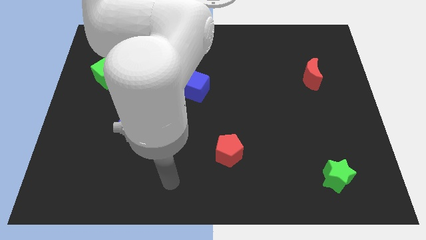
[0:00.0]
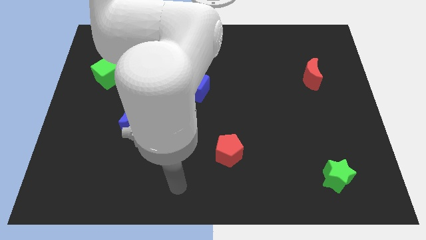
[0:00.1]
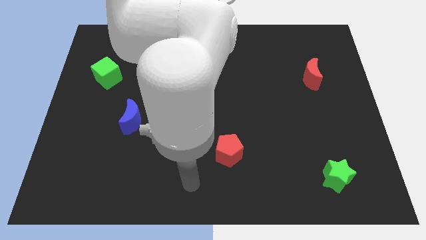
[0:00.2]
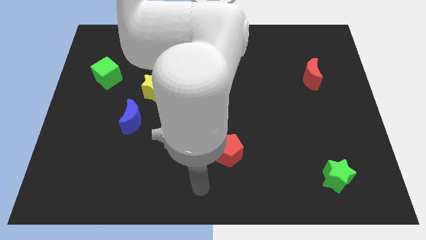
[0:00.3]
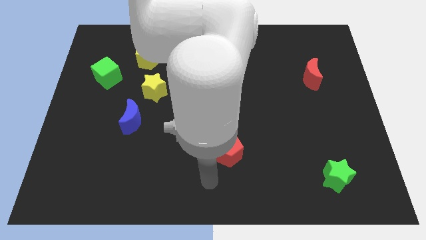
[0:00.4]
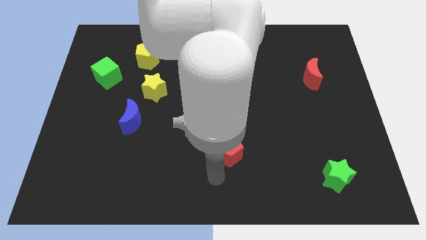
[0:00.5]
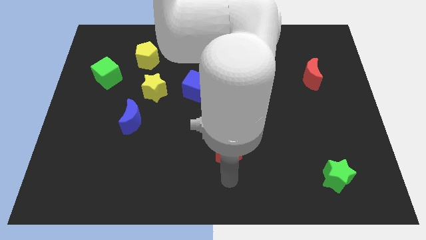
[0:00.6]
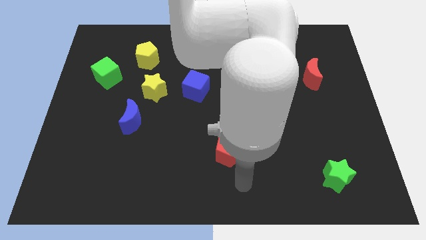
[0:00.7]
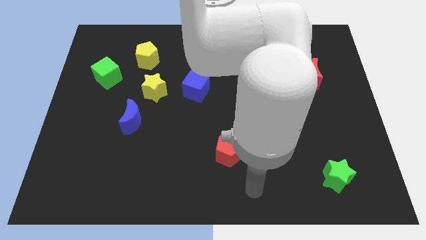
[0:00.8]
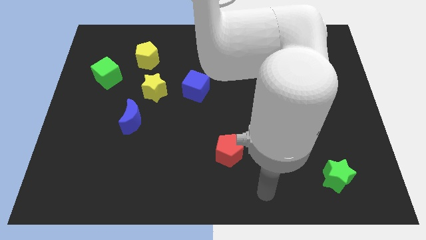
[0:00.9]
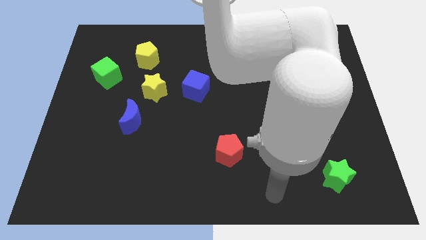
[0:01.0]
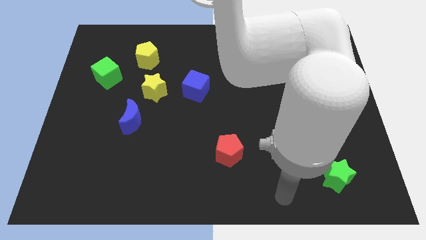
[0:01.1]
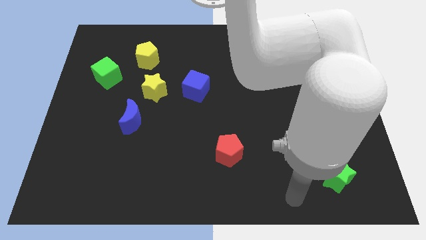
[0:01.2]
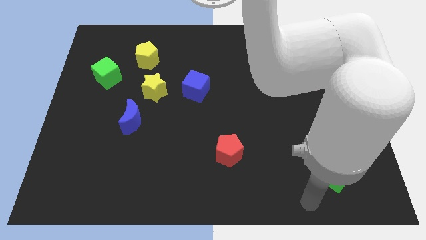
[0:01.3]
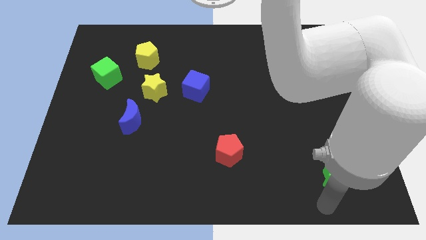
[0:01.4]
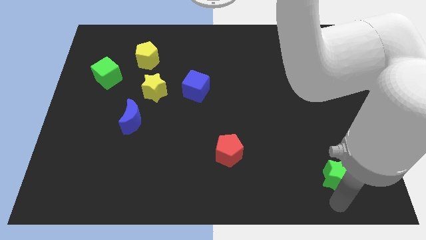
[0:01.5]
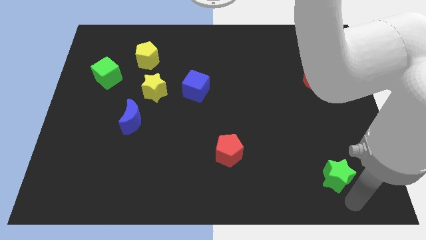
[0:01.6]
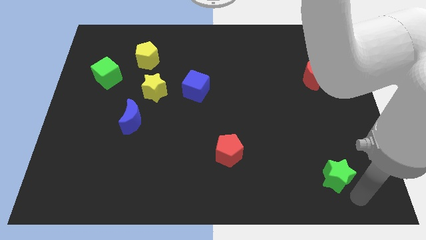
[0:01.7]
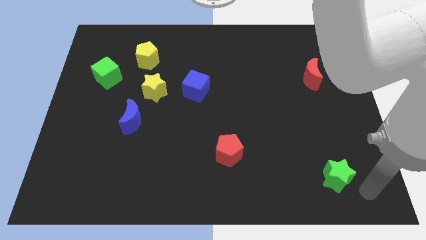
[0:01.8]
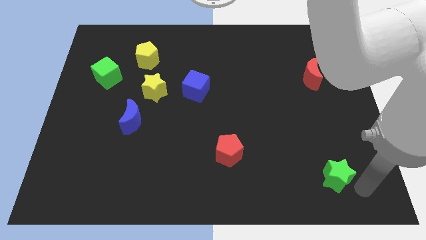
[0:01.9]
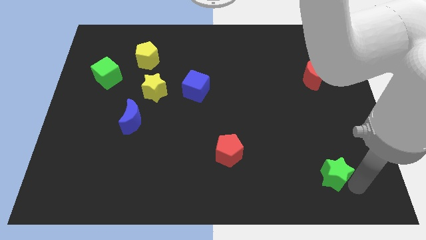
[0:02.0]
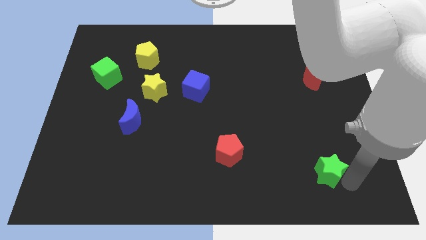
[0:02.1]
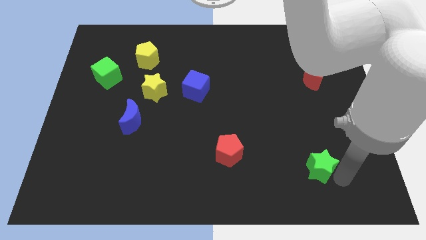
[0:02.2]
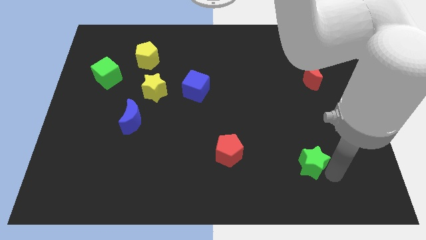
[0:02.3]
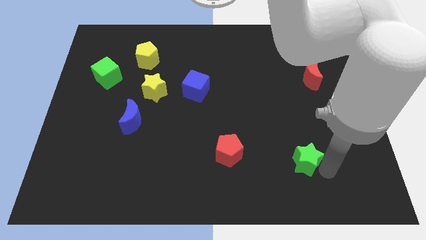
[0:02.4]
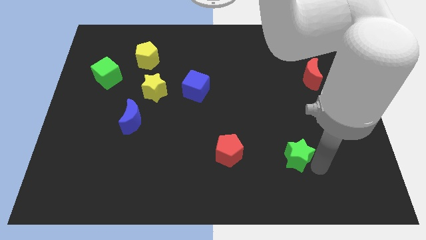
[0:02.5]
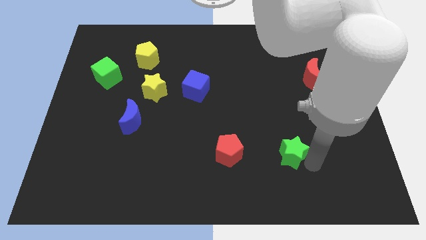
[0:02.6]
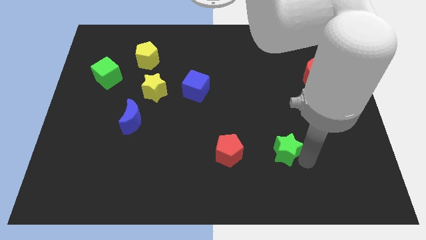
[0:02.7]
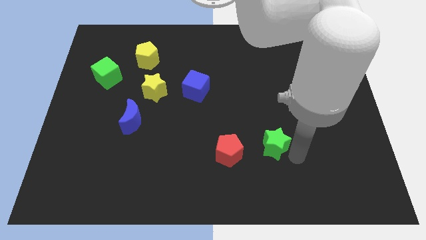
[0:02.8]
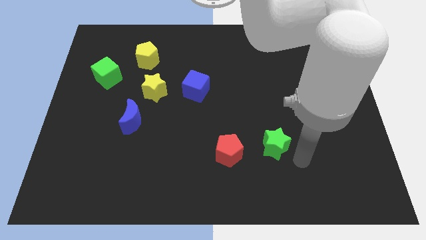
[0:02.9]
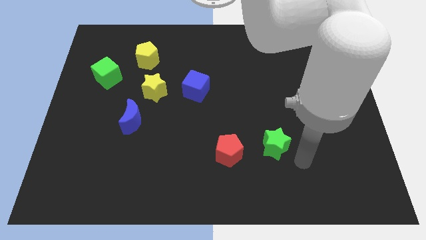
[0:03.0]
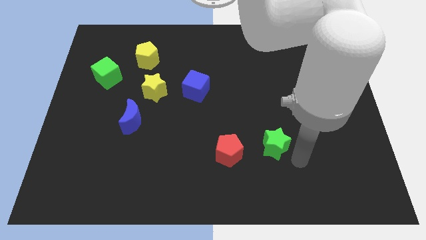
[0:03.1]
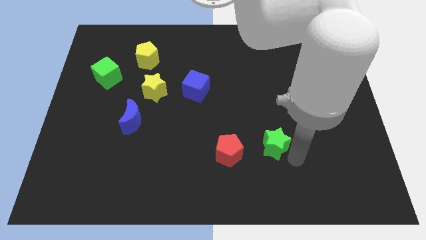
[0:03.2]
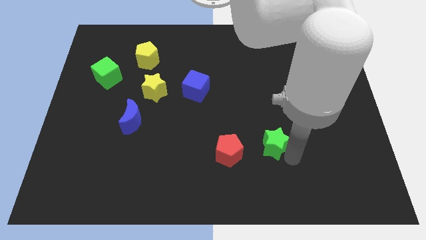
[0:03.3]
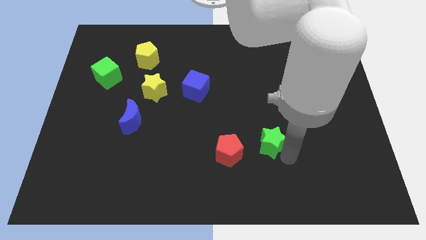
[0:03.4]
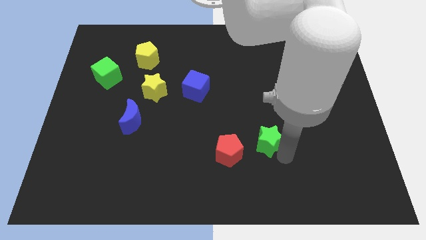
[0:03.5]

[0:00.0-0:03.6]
move the green star to the top right of the red pentagon

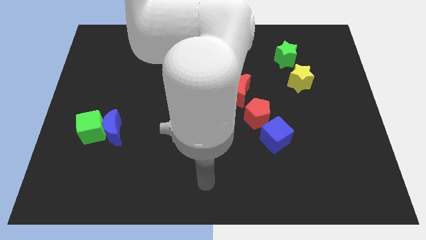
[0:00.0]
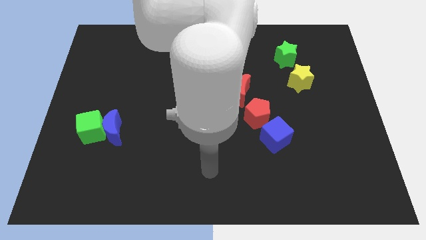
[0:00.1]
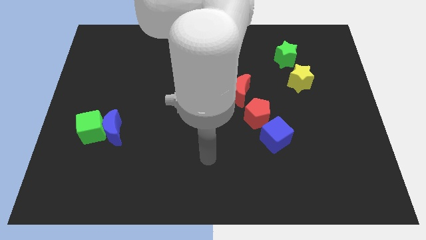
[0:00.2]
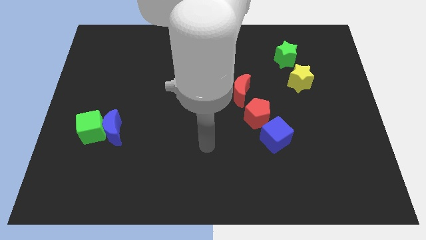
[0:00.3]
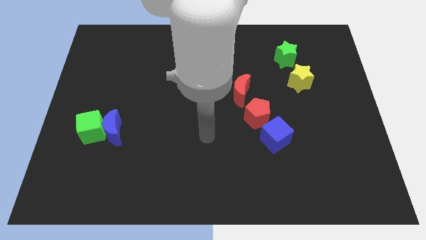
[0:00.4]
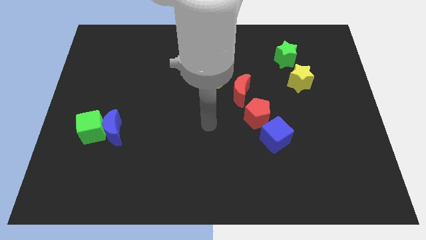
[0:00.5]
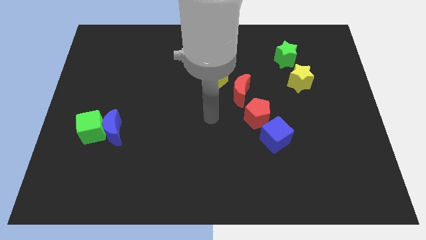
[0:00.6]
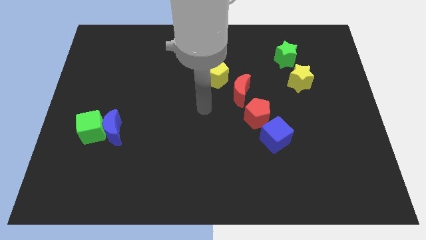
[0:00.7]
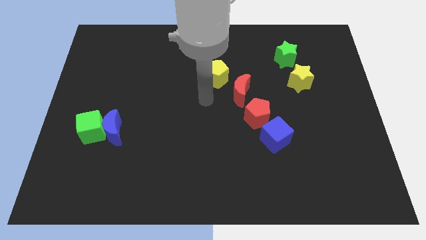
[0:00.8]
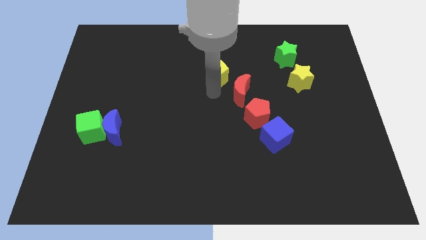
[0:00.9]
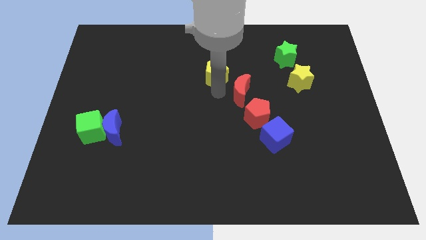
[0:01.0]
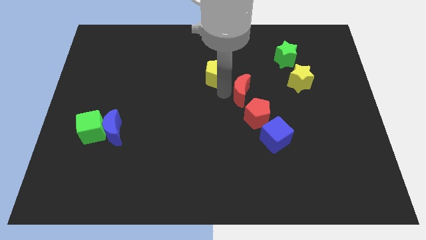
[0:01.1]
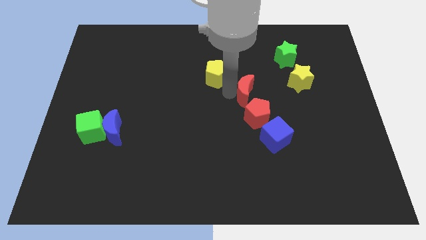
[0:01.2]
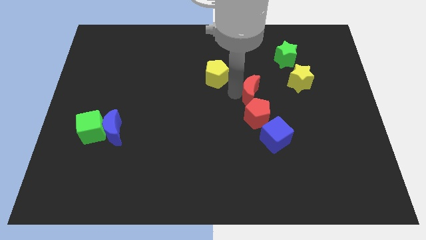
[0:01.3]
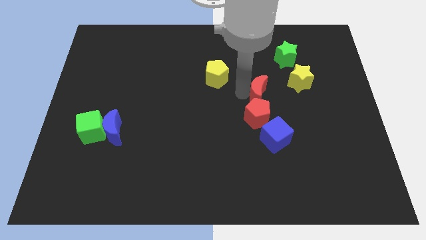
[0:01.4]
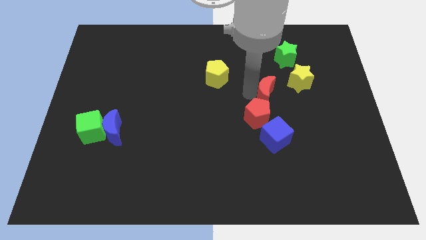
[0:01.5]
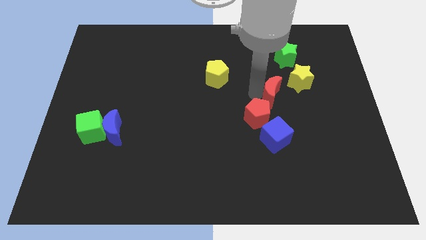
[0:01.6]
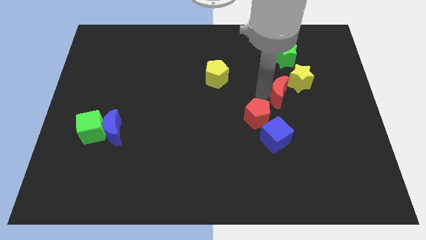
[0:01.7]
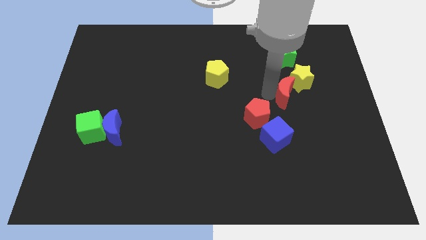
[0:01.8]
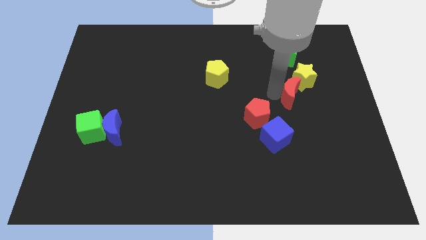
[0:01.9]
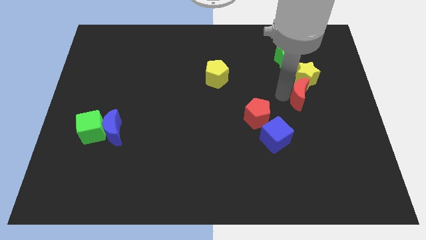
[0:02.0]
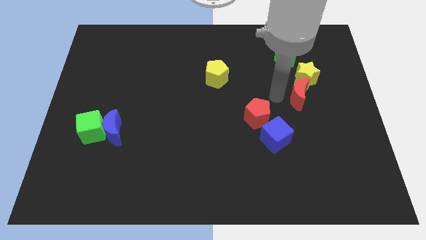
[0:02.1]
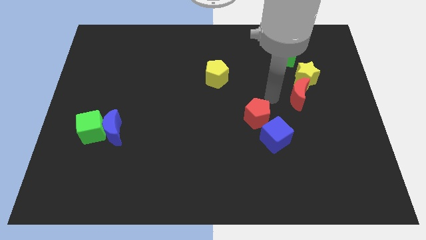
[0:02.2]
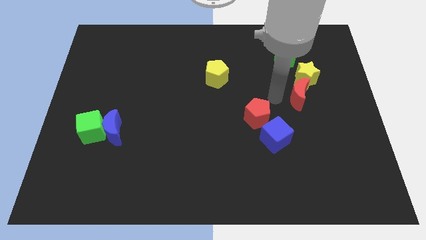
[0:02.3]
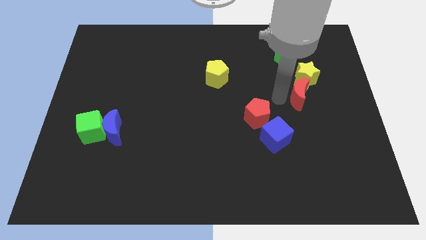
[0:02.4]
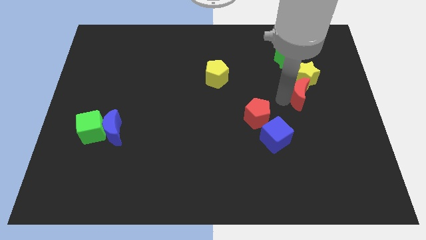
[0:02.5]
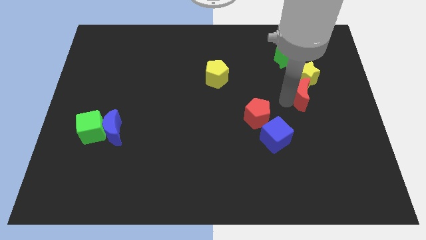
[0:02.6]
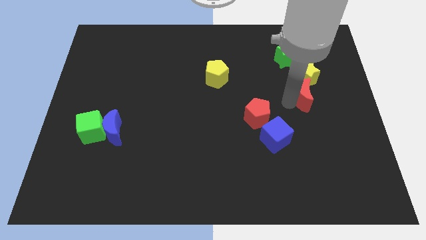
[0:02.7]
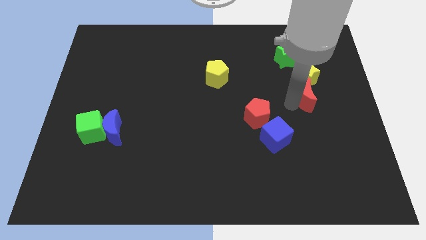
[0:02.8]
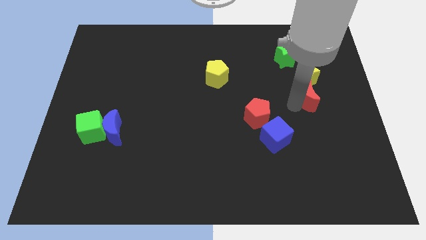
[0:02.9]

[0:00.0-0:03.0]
slide the red moon to the bottom right side of the yellow star

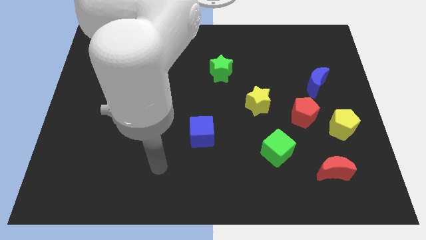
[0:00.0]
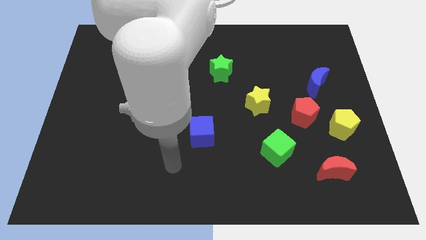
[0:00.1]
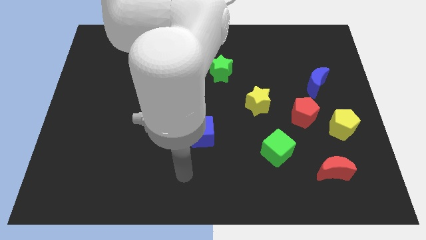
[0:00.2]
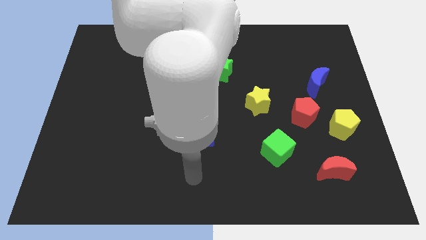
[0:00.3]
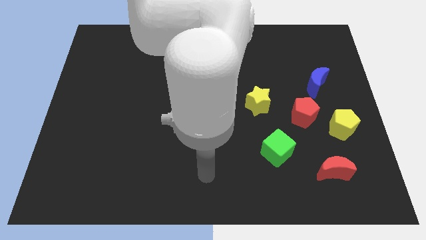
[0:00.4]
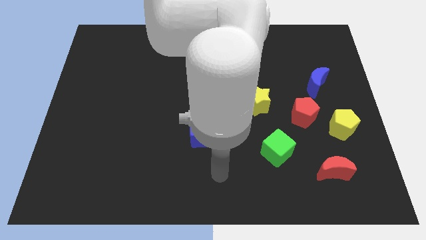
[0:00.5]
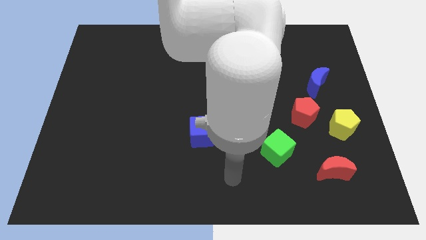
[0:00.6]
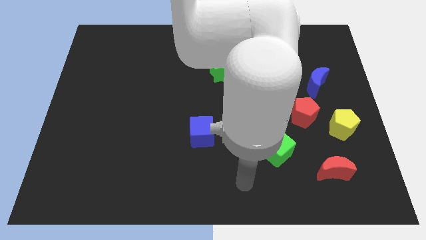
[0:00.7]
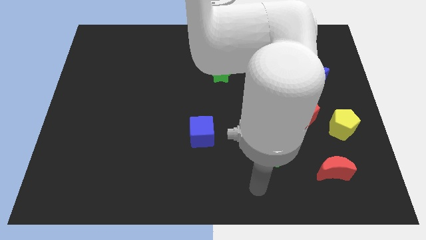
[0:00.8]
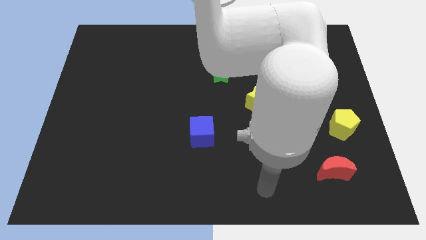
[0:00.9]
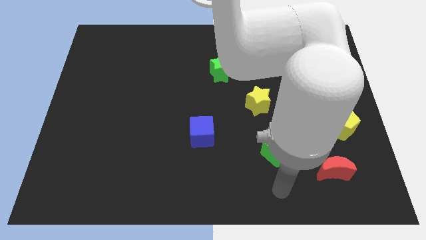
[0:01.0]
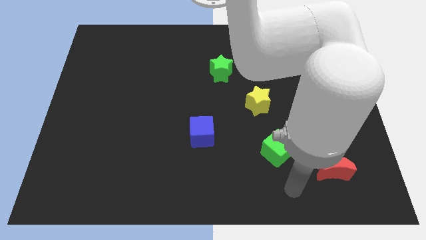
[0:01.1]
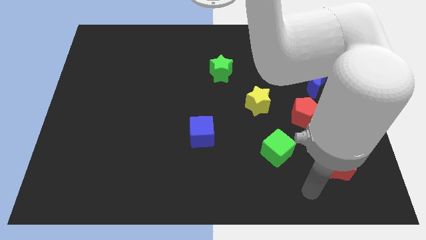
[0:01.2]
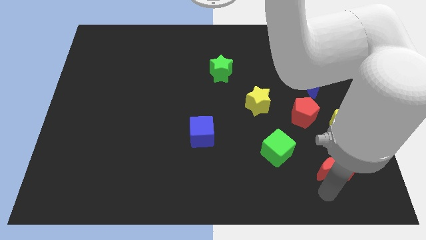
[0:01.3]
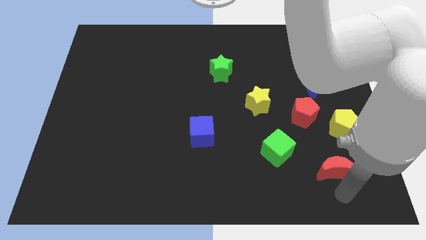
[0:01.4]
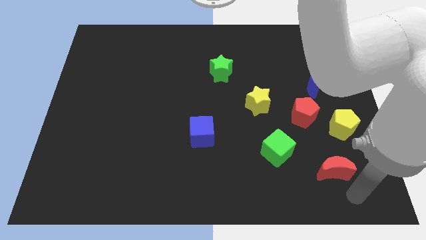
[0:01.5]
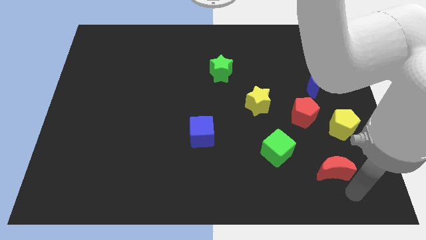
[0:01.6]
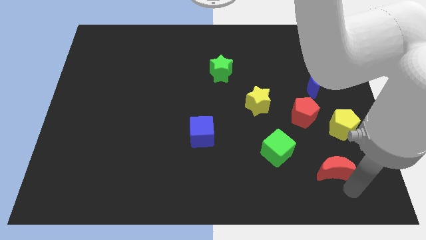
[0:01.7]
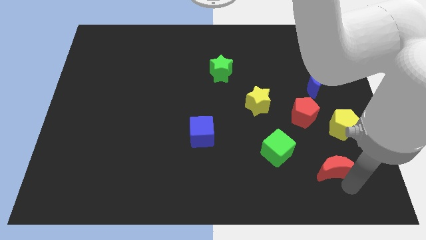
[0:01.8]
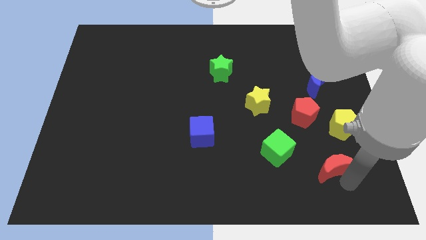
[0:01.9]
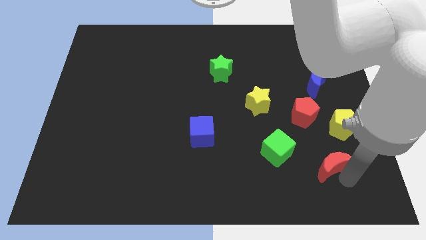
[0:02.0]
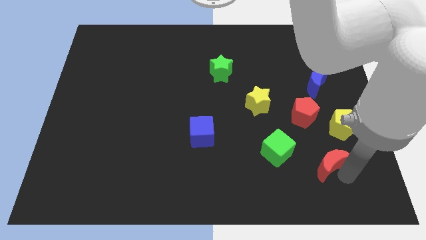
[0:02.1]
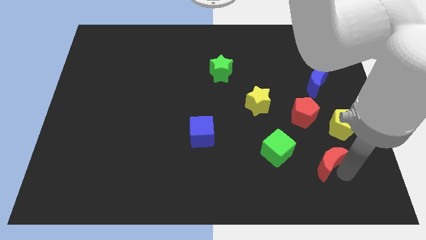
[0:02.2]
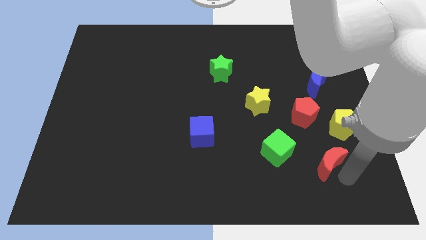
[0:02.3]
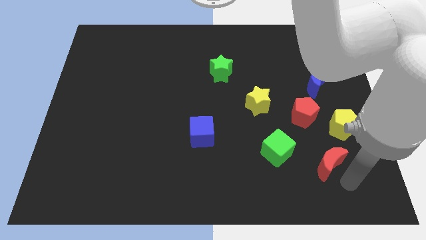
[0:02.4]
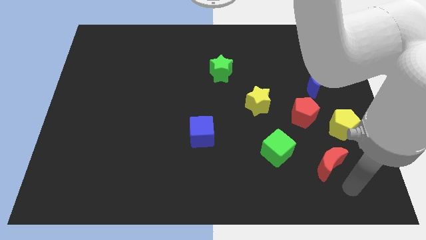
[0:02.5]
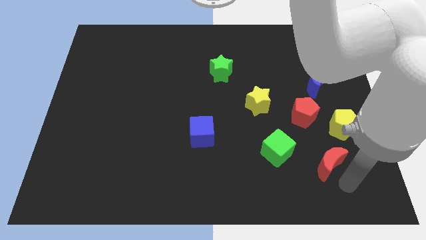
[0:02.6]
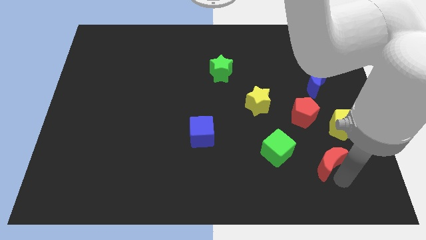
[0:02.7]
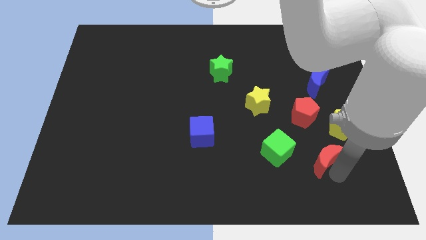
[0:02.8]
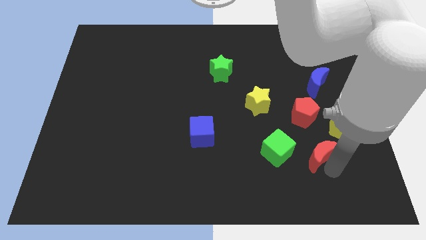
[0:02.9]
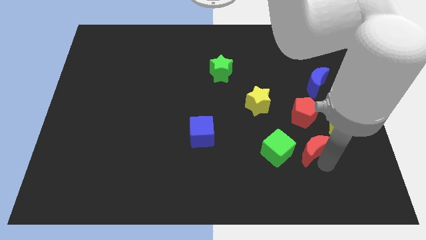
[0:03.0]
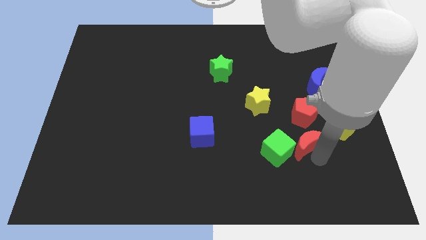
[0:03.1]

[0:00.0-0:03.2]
put the red moon to the top right of the green cube
